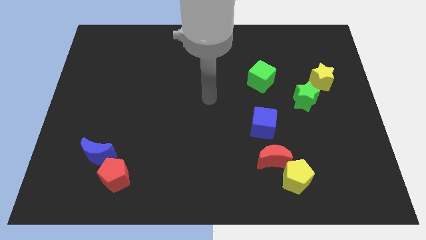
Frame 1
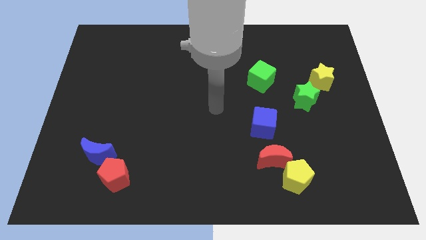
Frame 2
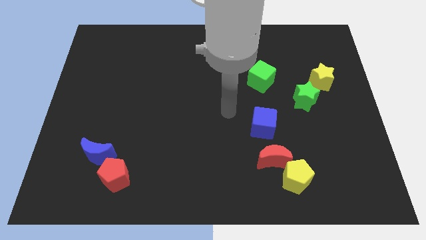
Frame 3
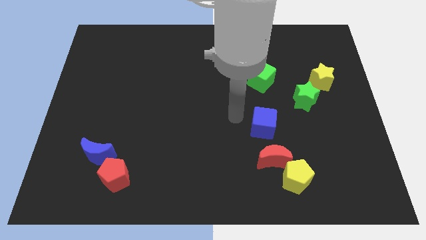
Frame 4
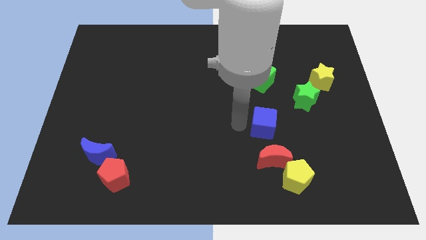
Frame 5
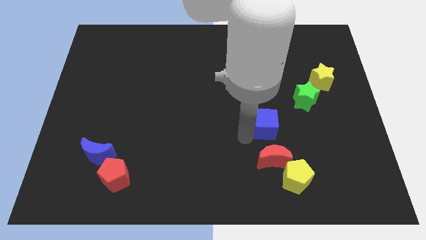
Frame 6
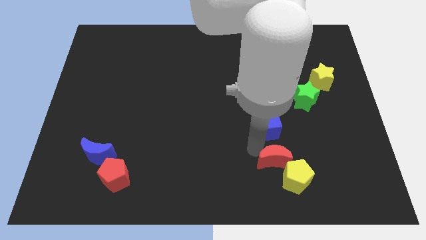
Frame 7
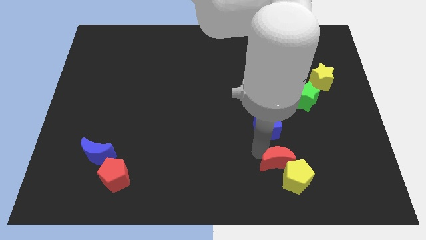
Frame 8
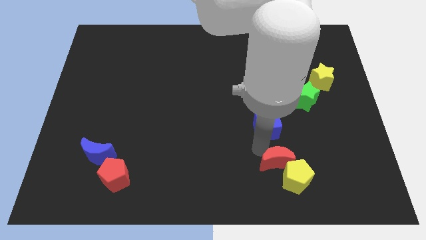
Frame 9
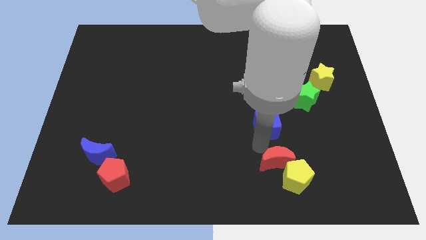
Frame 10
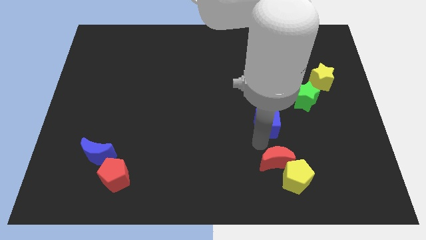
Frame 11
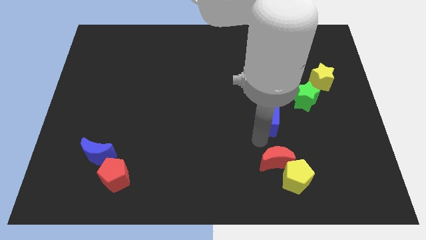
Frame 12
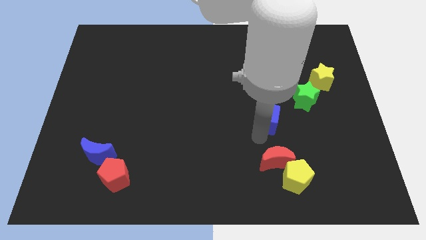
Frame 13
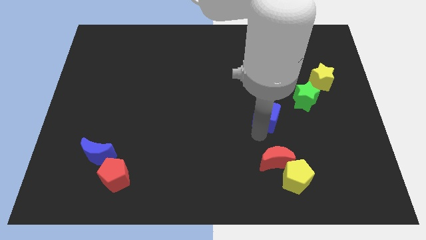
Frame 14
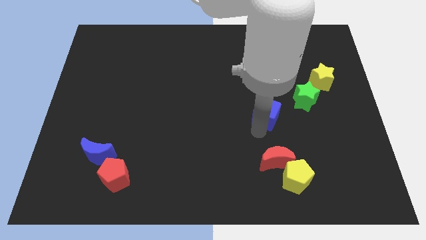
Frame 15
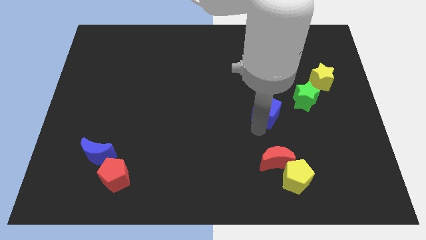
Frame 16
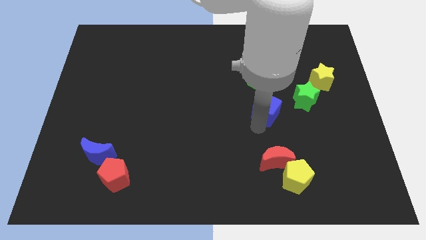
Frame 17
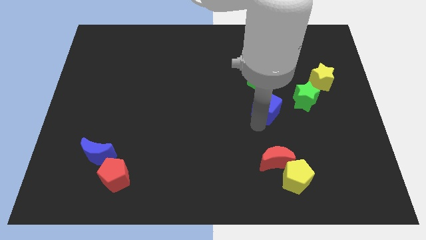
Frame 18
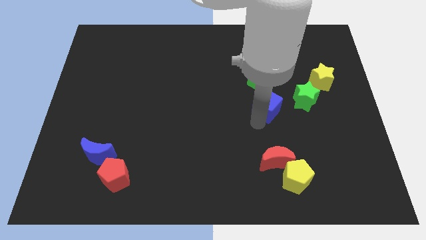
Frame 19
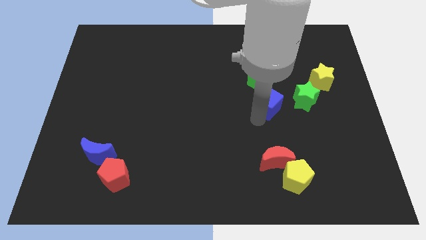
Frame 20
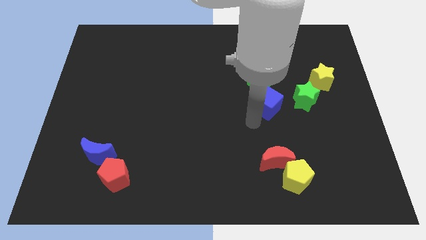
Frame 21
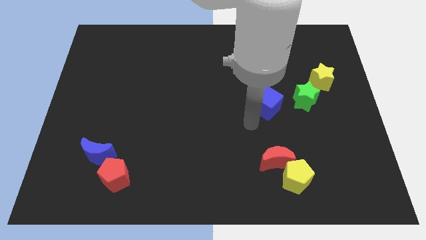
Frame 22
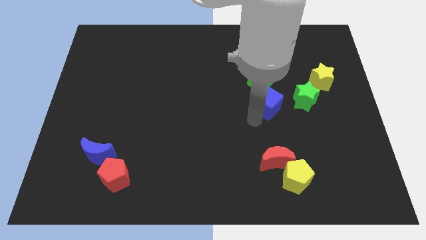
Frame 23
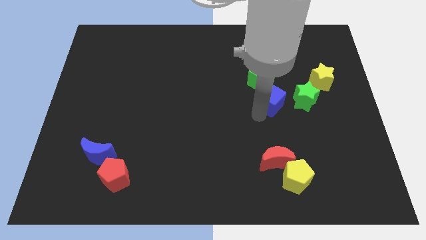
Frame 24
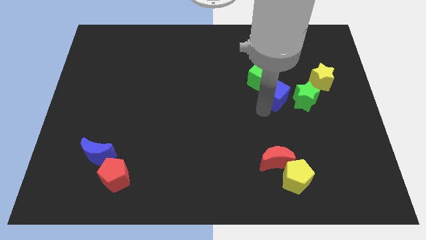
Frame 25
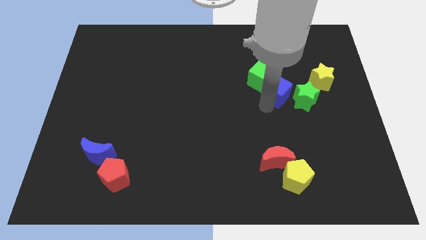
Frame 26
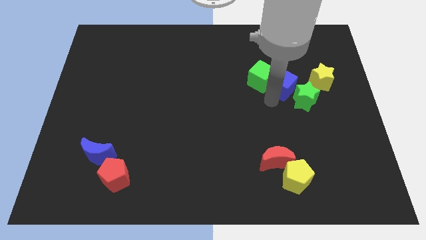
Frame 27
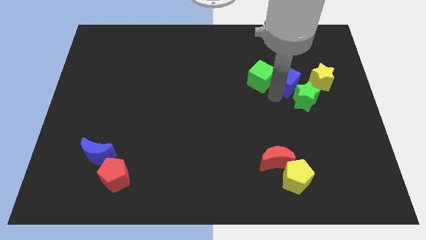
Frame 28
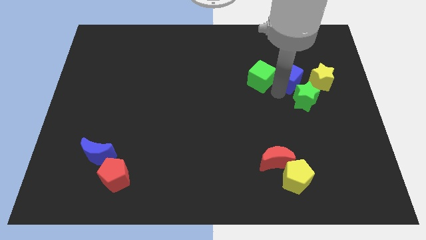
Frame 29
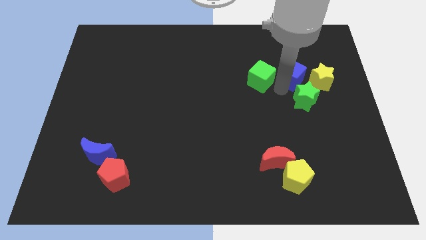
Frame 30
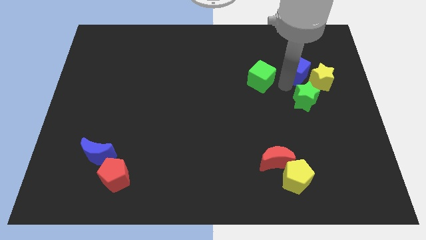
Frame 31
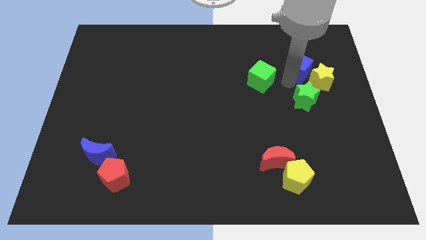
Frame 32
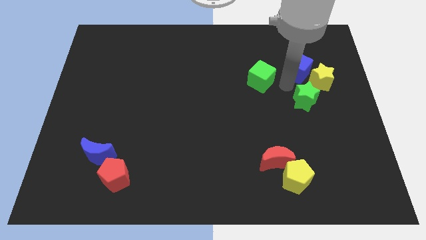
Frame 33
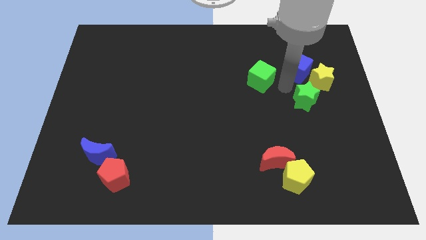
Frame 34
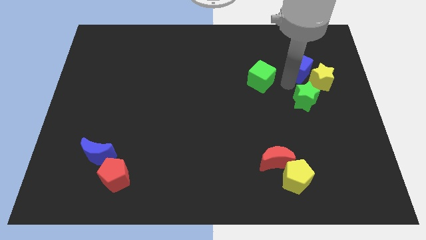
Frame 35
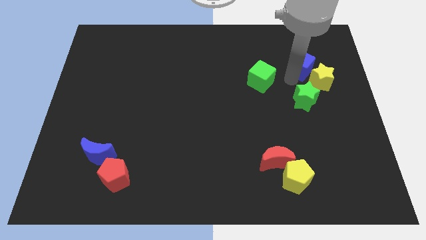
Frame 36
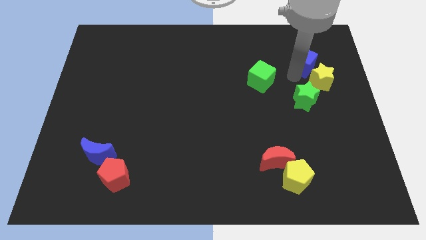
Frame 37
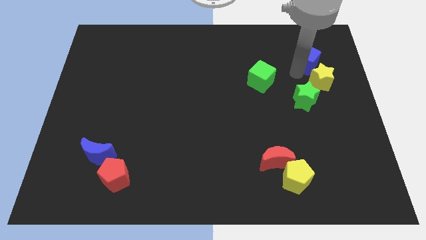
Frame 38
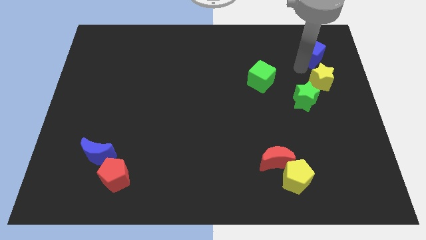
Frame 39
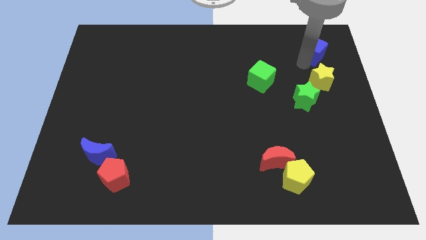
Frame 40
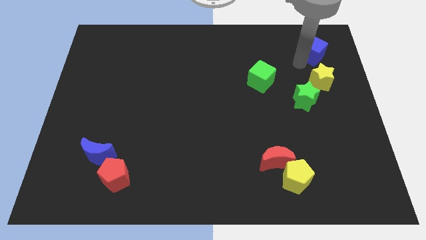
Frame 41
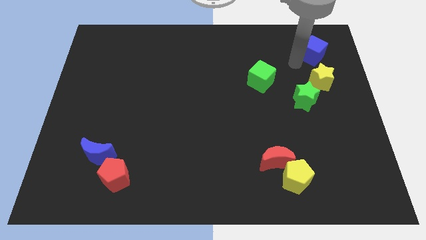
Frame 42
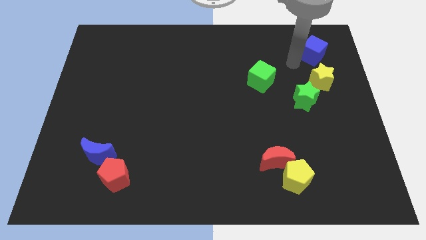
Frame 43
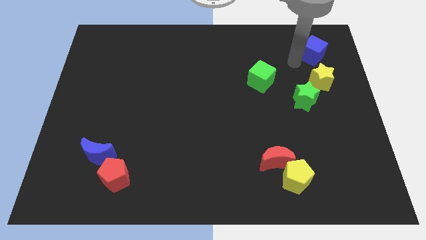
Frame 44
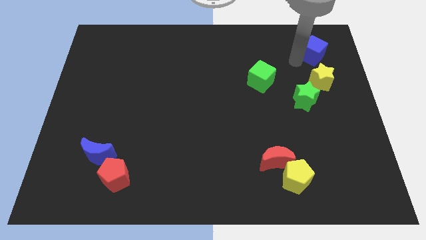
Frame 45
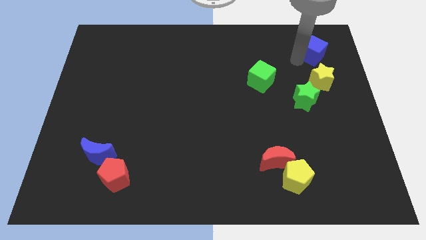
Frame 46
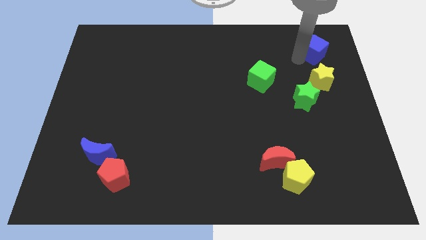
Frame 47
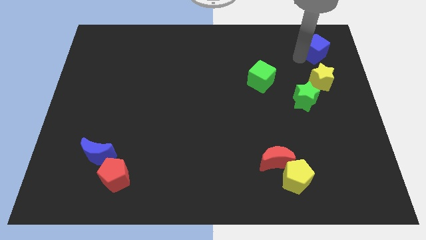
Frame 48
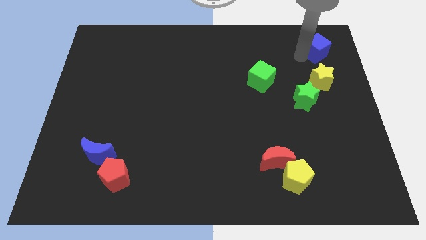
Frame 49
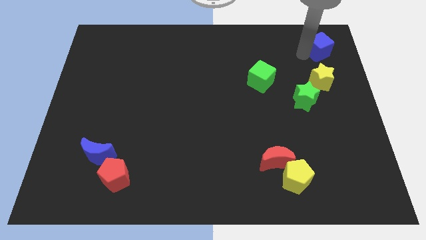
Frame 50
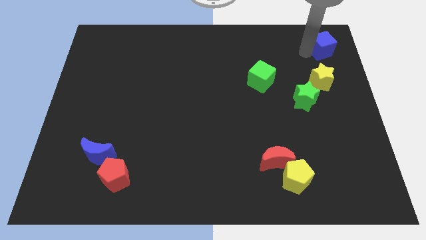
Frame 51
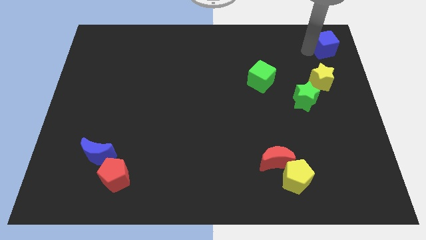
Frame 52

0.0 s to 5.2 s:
push the blue cube to the top right of the board
